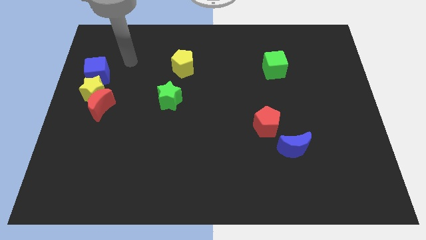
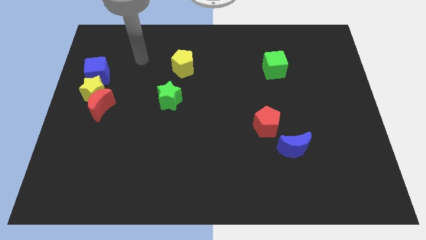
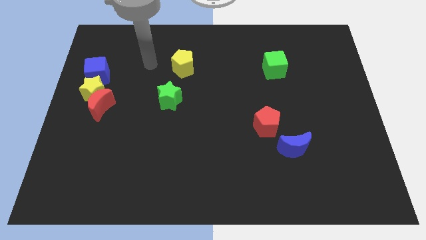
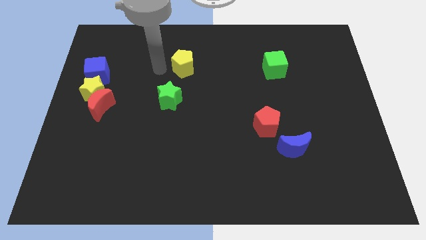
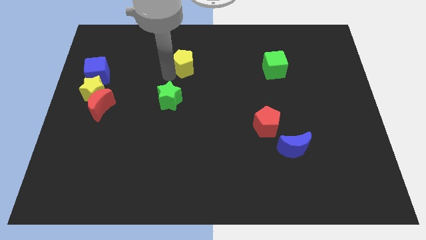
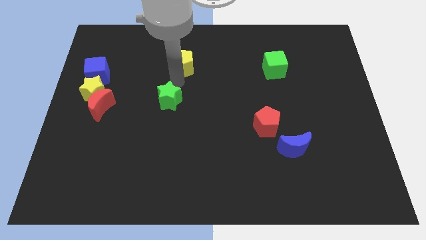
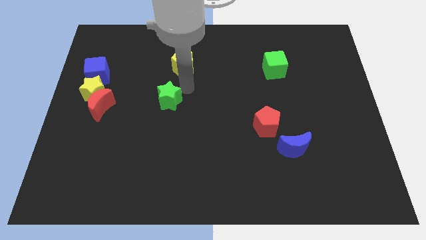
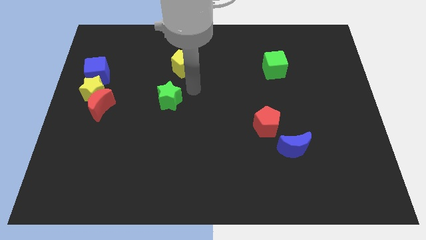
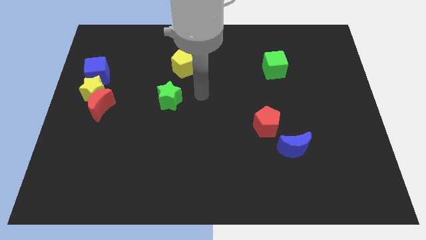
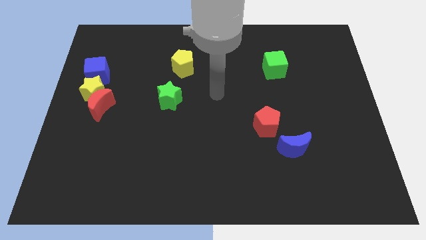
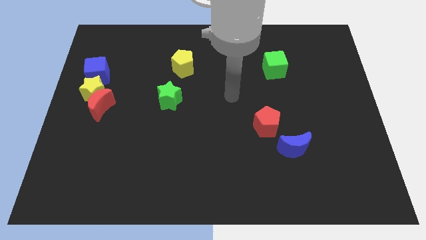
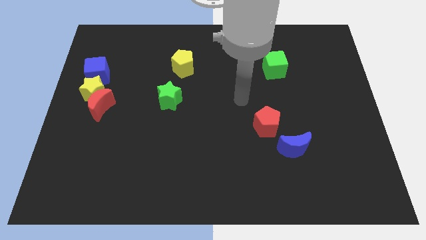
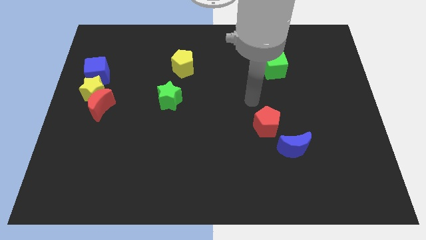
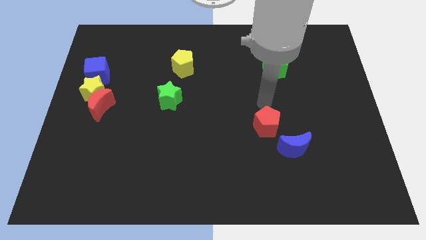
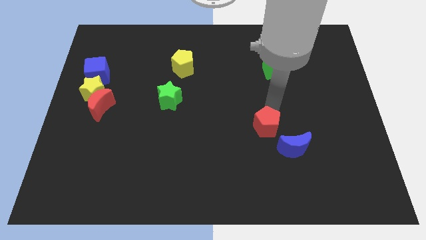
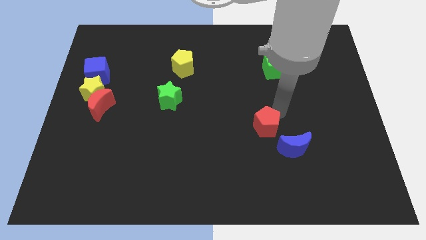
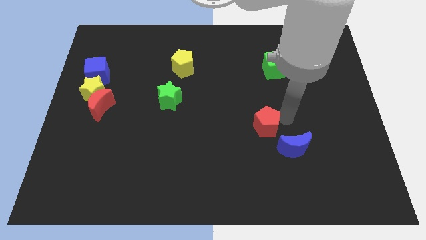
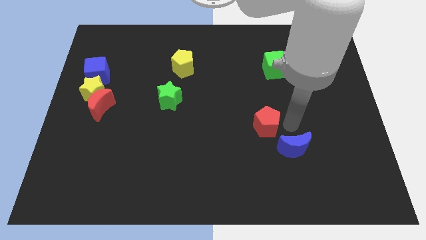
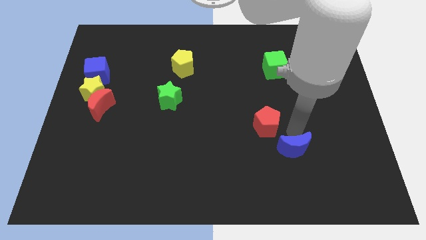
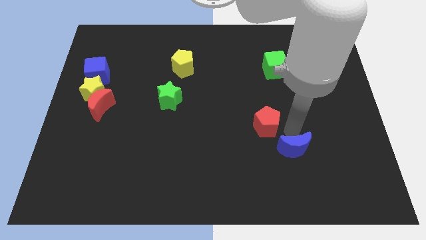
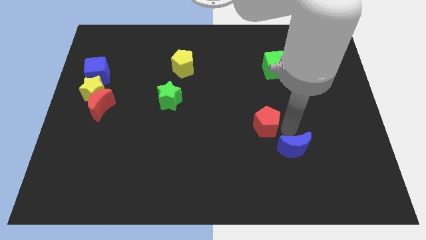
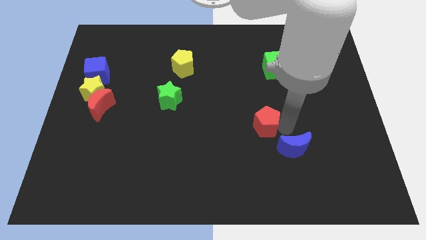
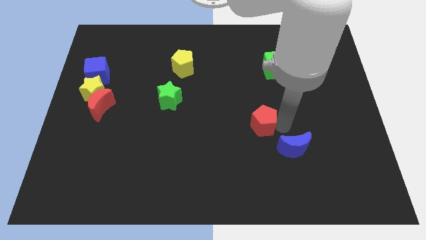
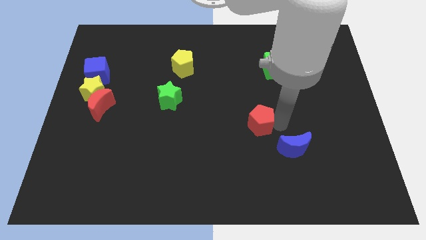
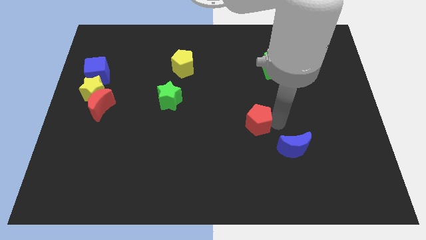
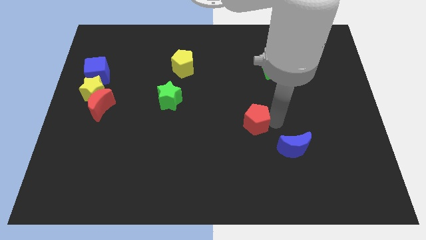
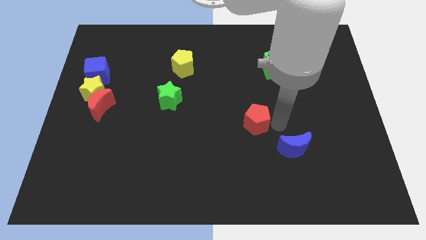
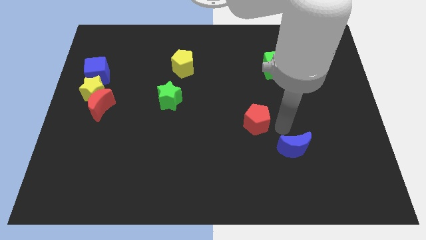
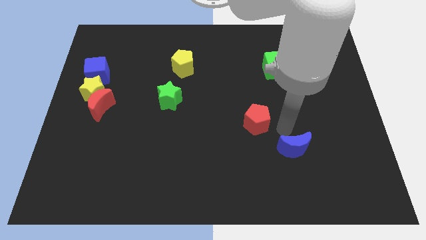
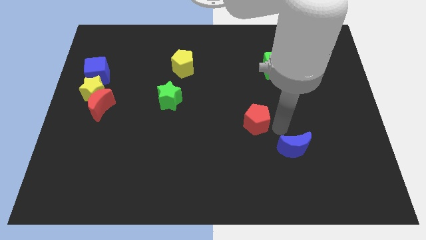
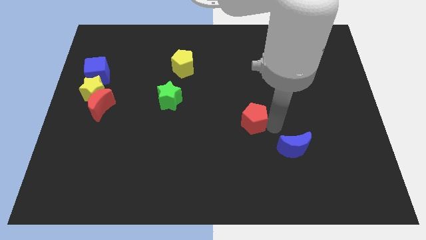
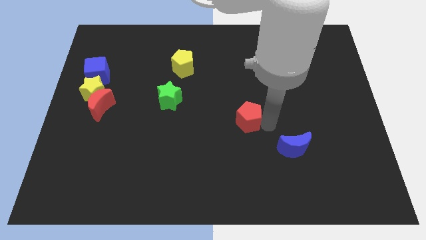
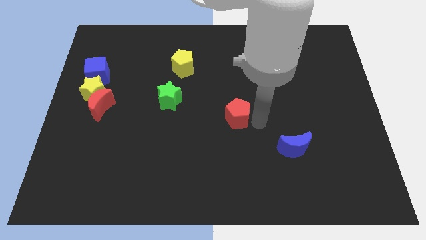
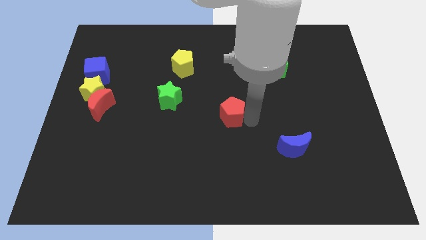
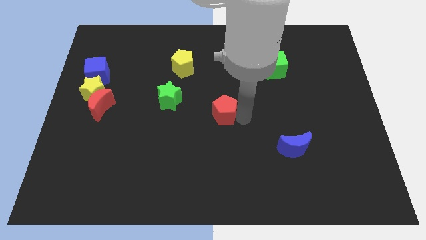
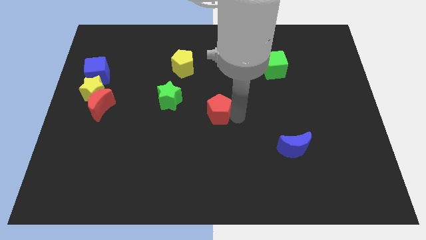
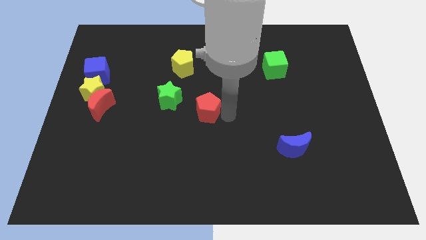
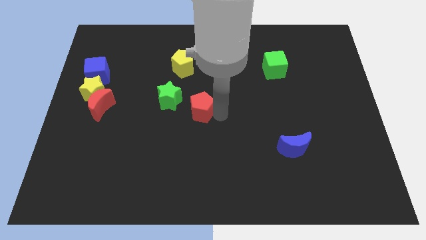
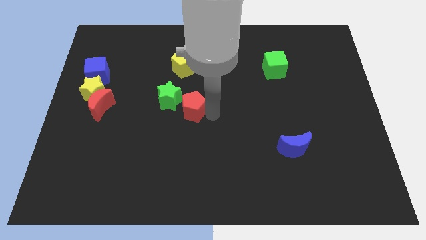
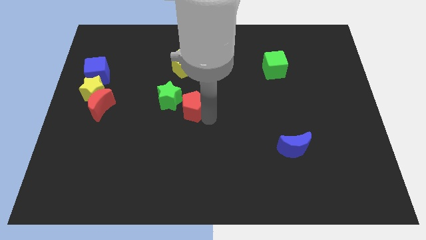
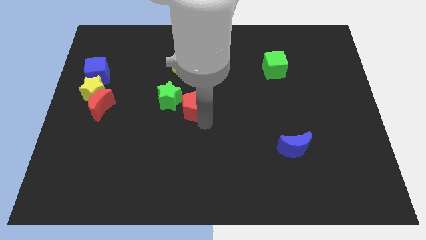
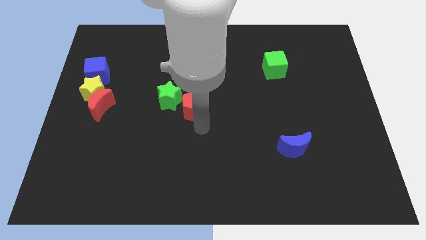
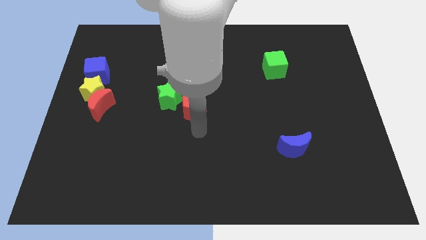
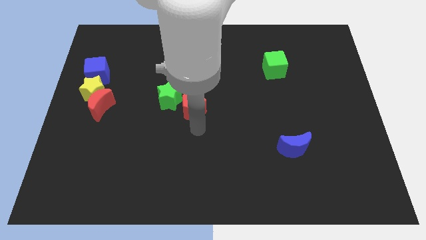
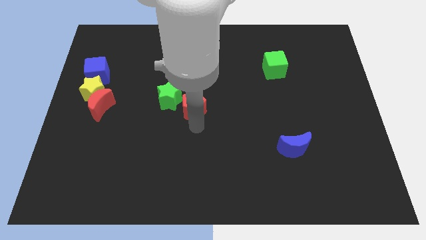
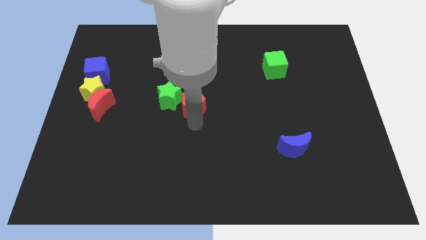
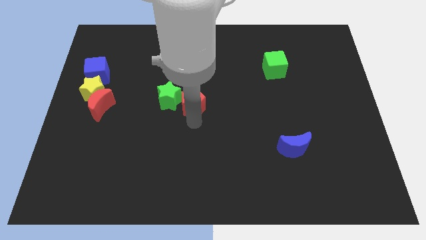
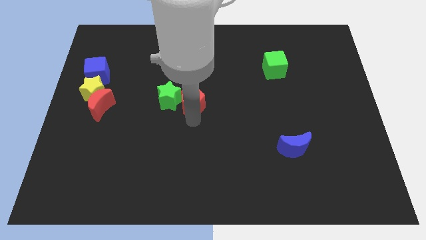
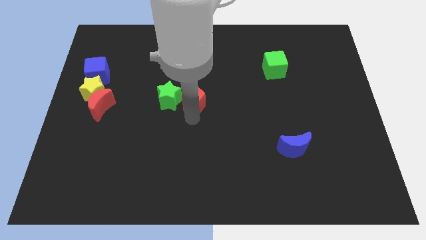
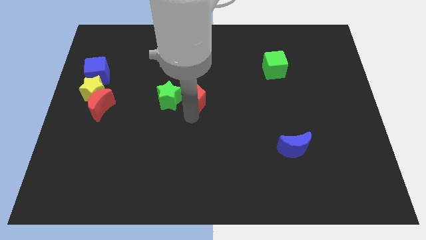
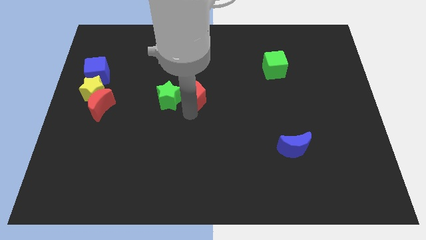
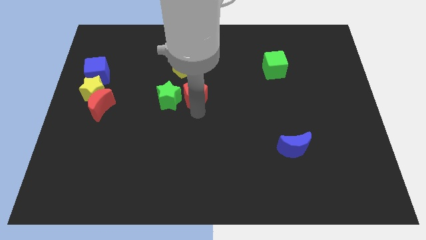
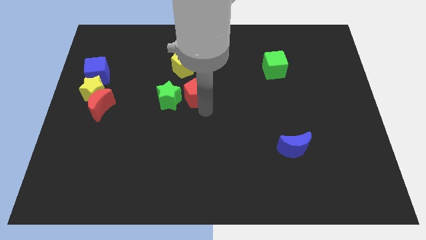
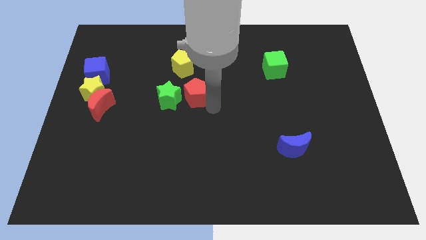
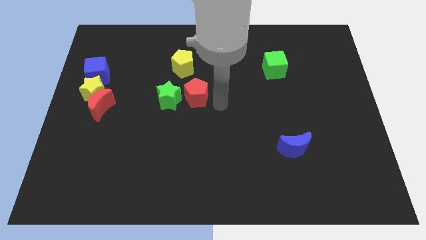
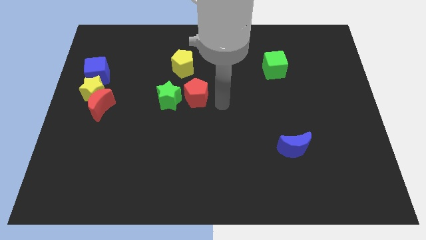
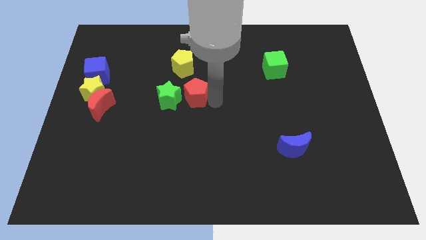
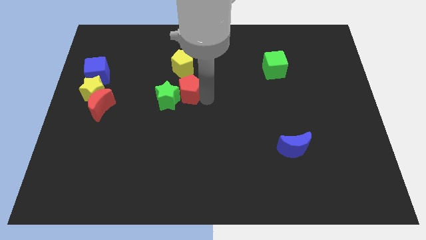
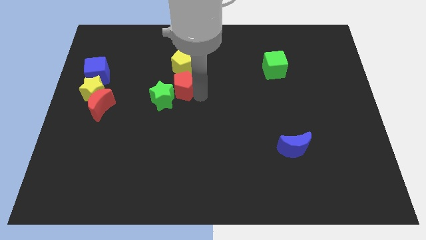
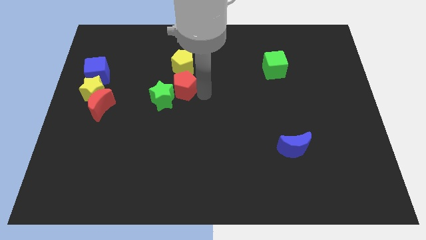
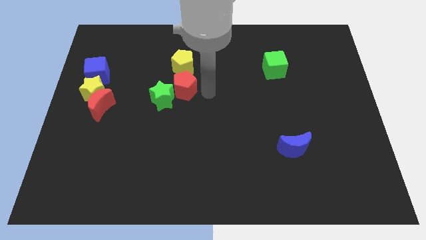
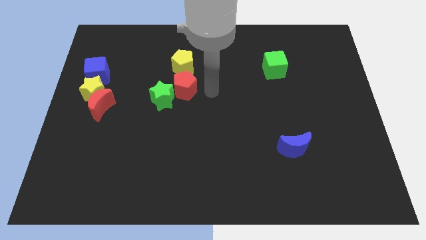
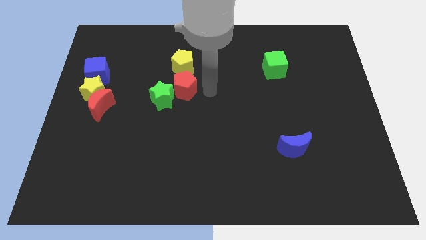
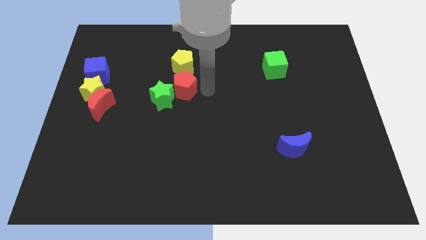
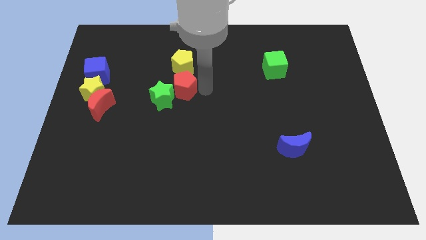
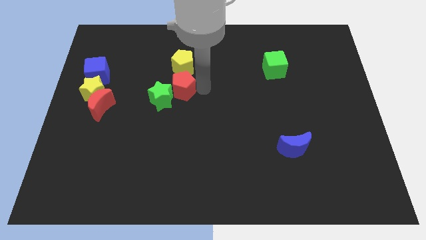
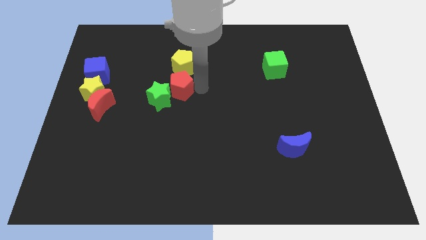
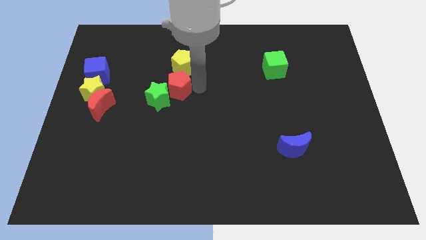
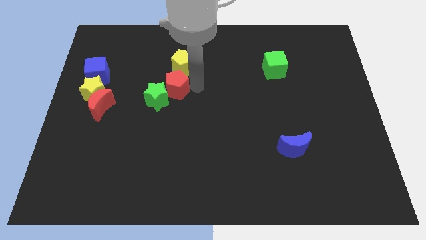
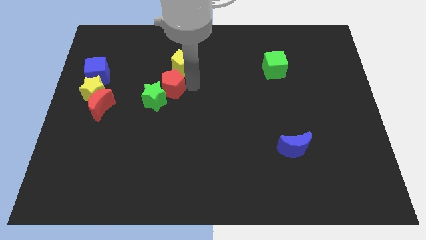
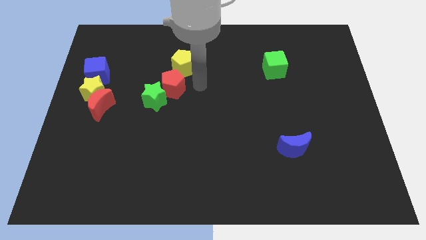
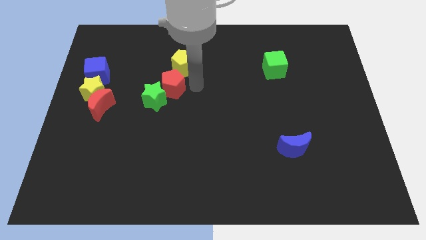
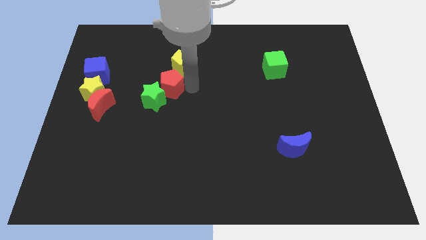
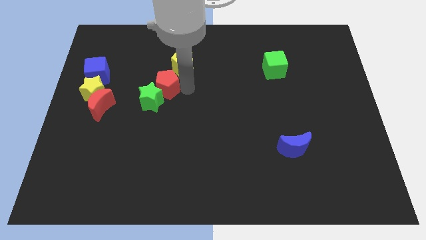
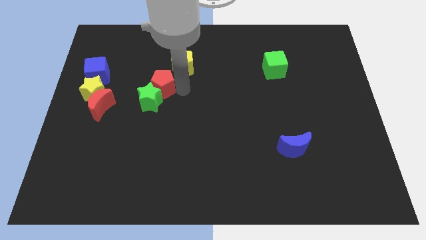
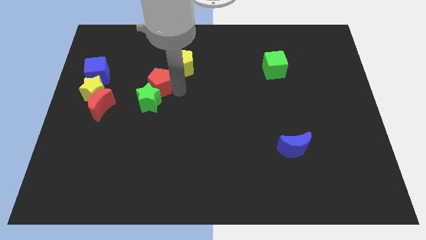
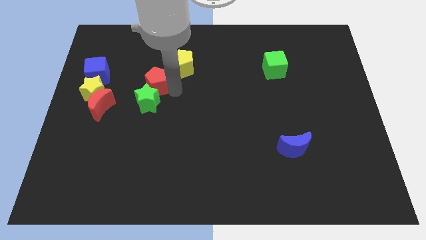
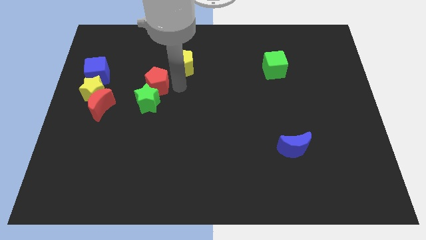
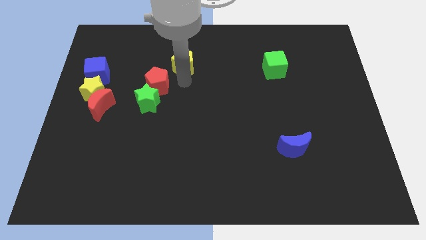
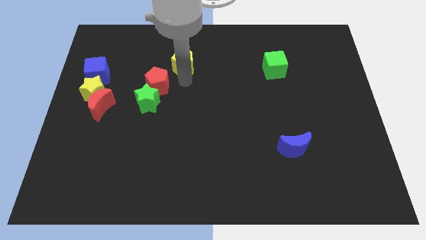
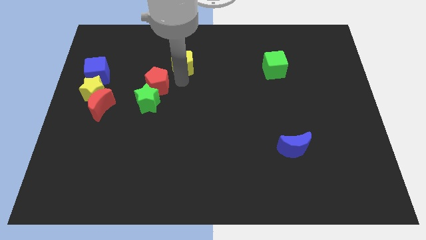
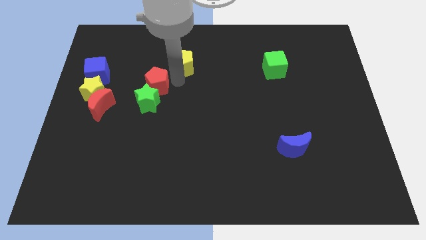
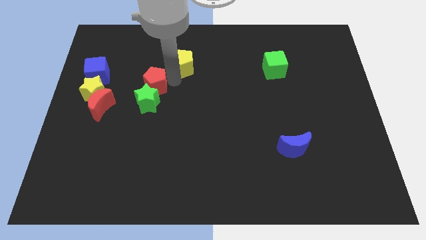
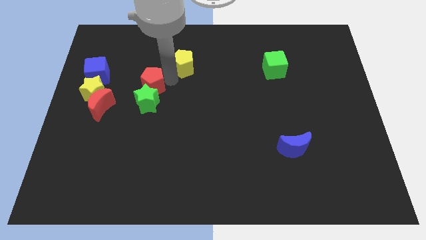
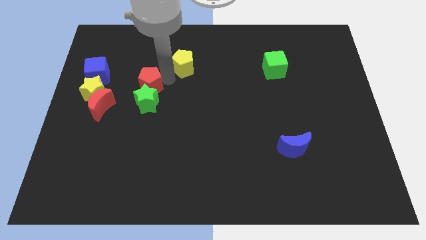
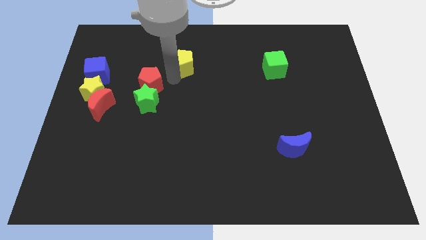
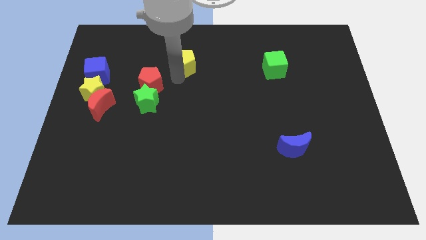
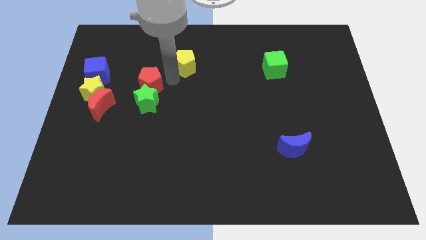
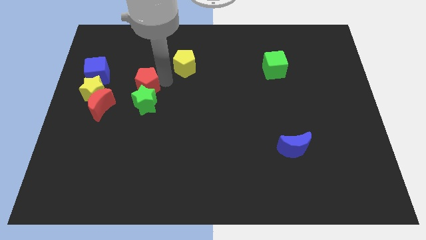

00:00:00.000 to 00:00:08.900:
push the red pentagon to the top right side of the red moon
